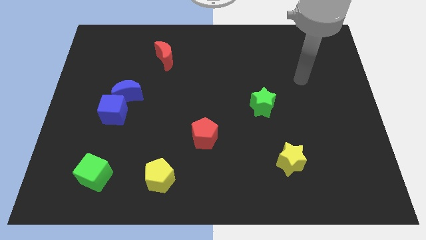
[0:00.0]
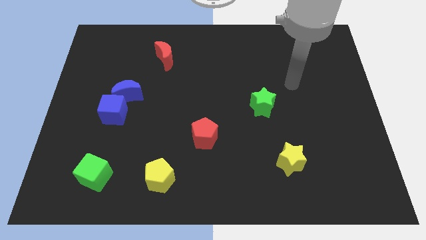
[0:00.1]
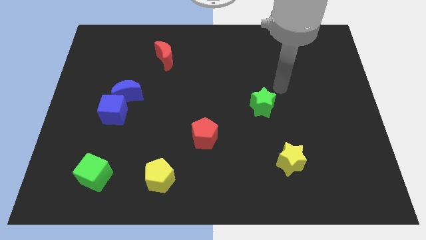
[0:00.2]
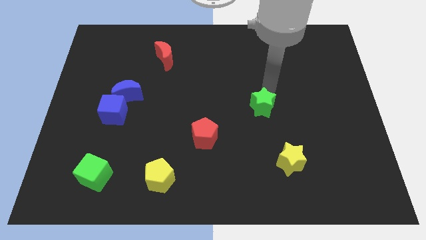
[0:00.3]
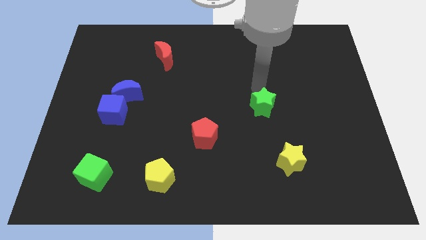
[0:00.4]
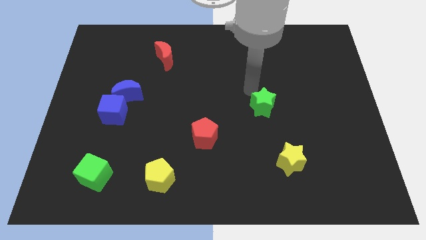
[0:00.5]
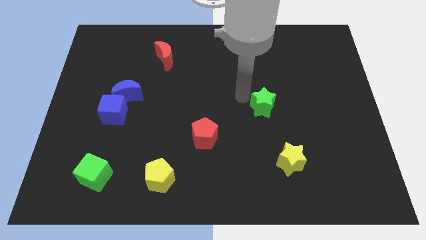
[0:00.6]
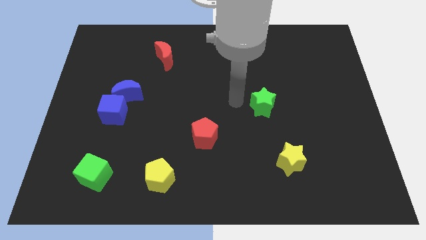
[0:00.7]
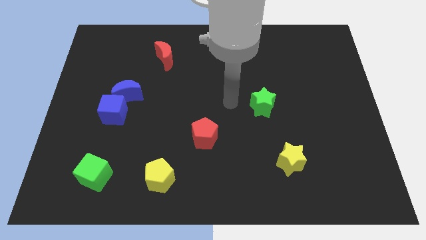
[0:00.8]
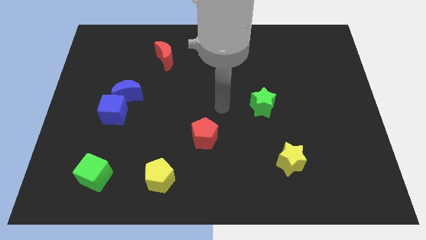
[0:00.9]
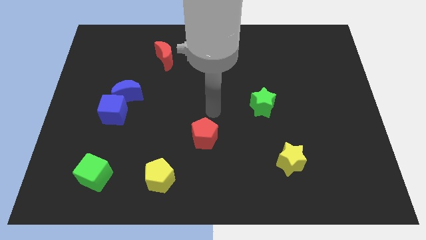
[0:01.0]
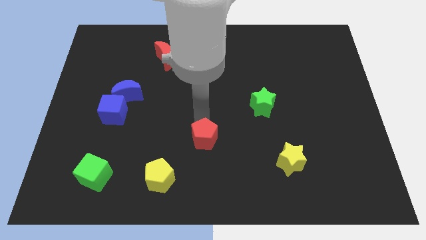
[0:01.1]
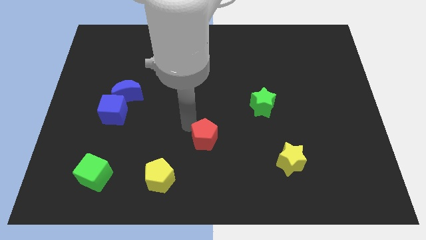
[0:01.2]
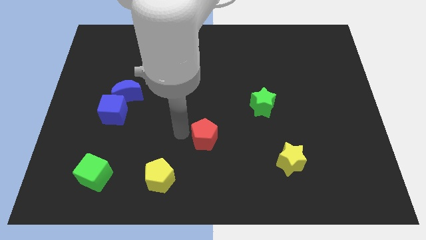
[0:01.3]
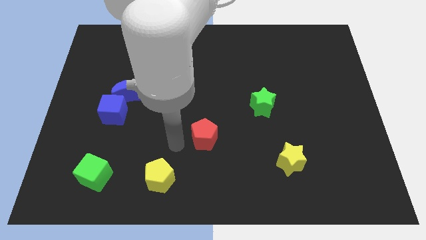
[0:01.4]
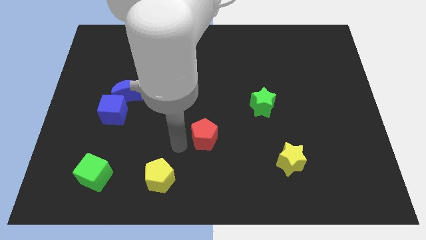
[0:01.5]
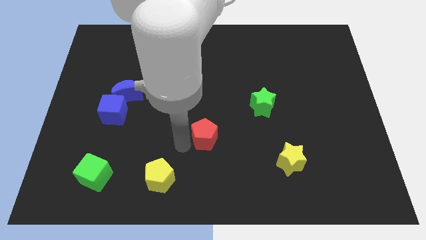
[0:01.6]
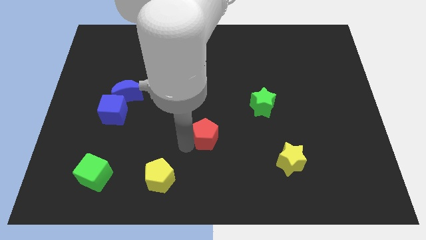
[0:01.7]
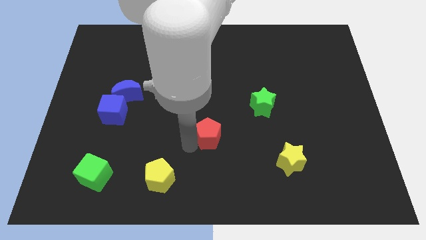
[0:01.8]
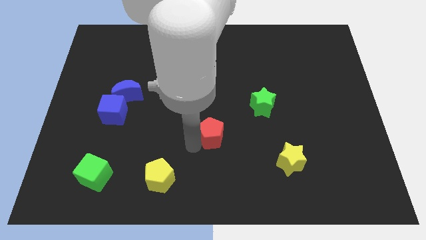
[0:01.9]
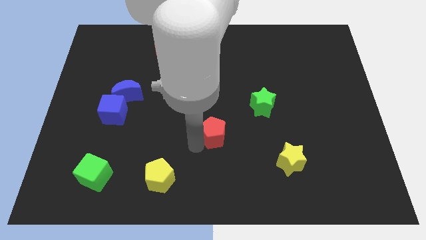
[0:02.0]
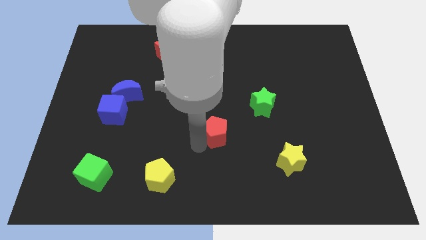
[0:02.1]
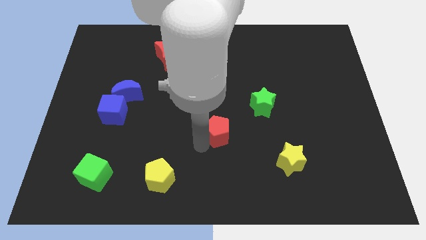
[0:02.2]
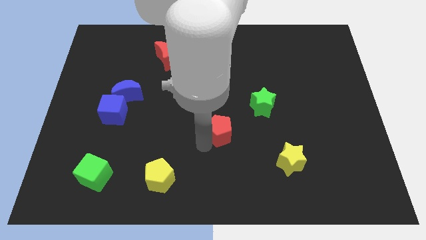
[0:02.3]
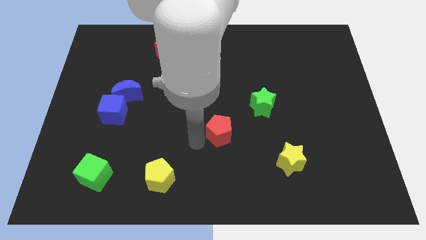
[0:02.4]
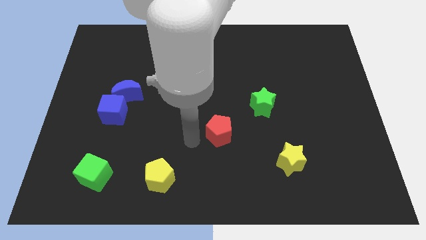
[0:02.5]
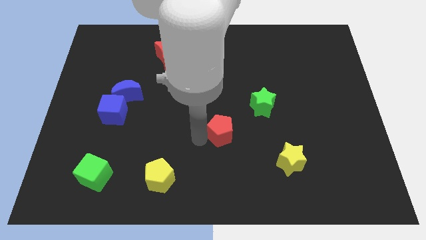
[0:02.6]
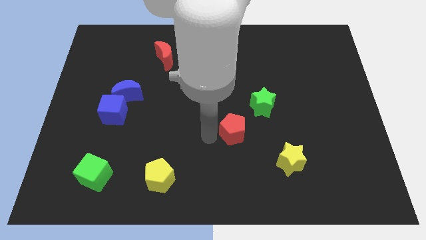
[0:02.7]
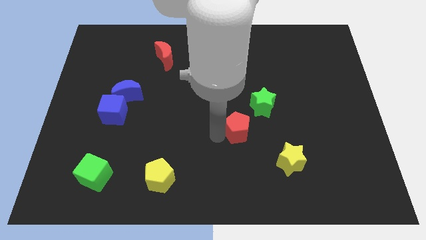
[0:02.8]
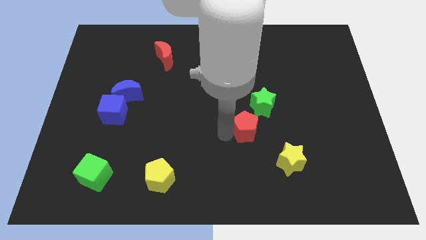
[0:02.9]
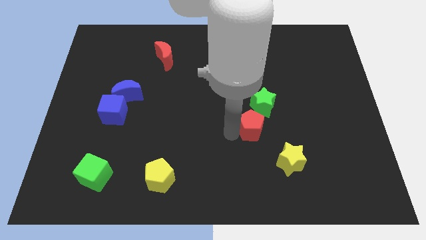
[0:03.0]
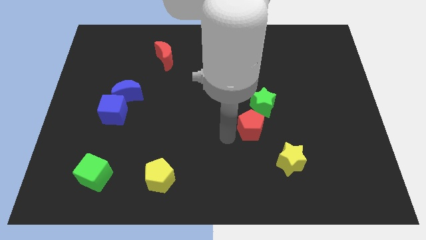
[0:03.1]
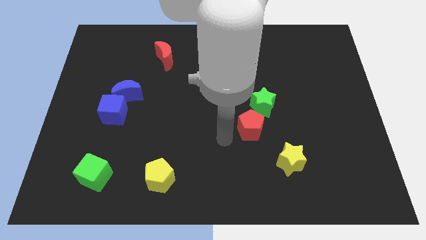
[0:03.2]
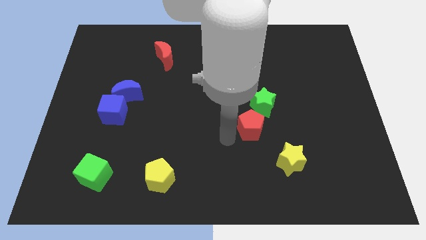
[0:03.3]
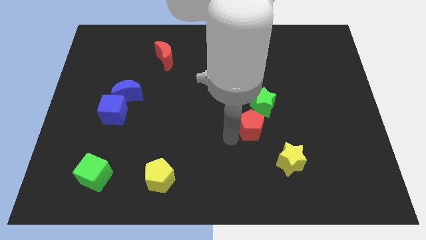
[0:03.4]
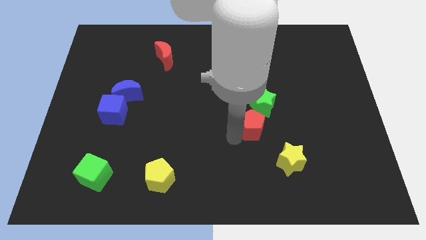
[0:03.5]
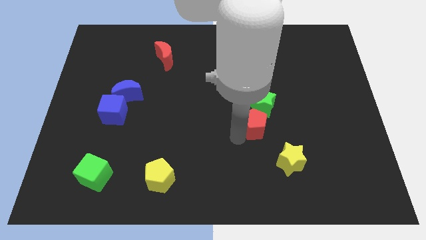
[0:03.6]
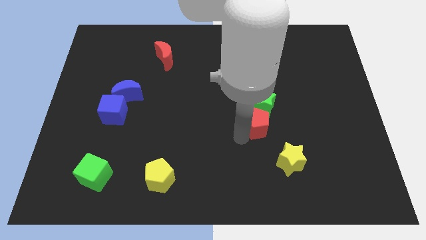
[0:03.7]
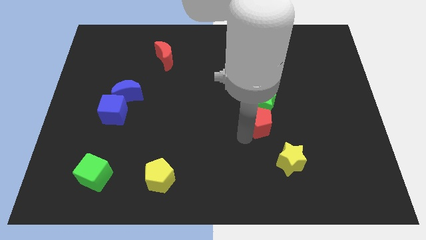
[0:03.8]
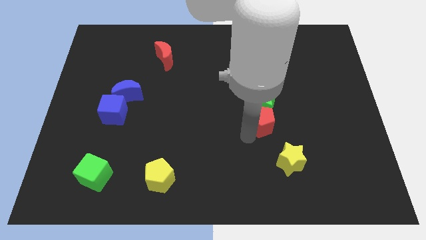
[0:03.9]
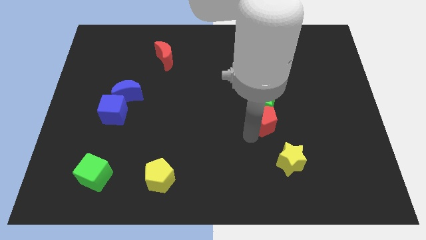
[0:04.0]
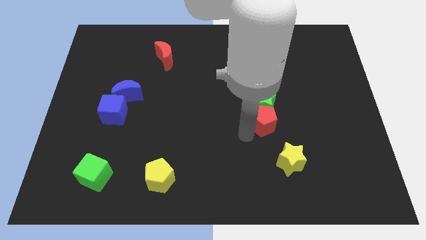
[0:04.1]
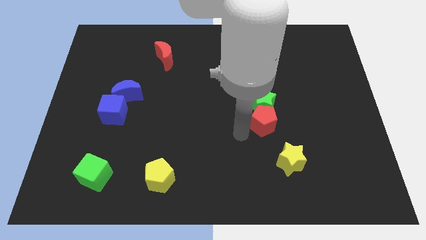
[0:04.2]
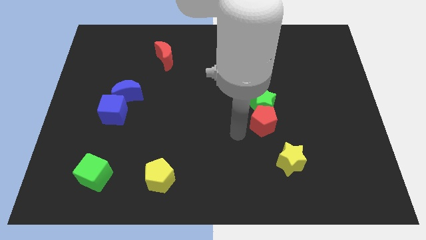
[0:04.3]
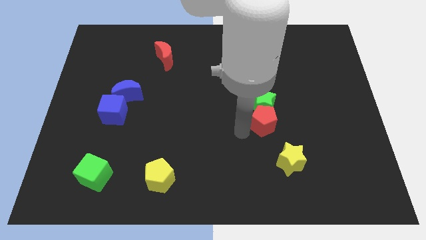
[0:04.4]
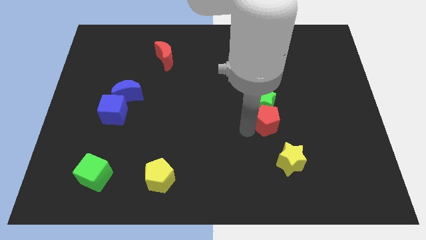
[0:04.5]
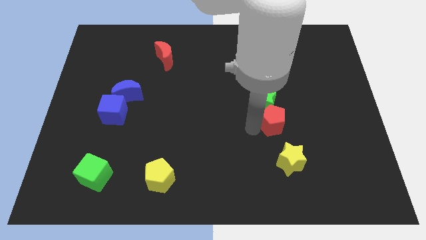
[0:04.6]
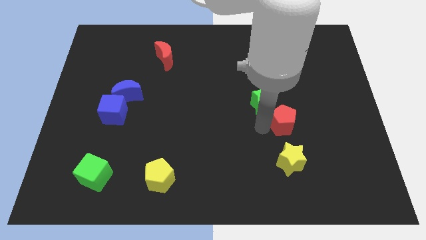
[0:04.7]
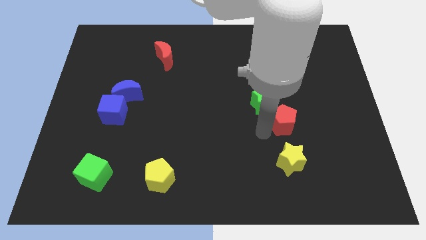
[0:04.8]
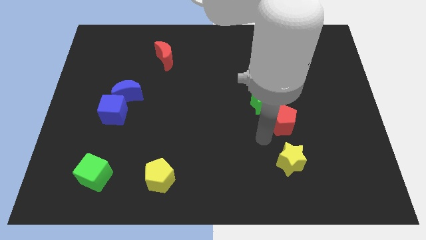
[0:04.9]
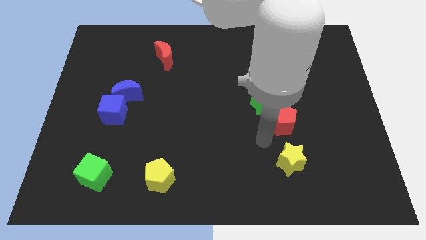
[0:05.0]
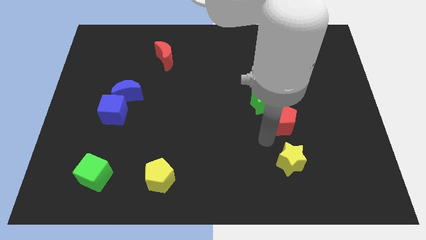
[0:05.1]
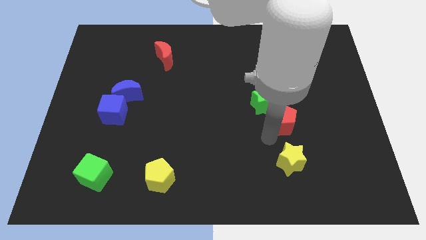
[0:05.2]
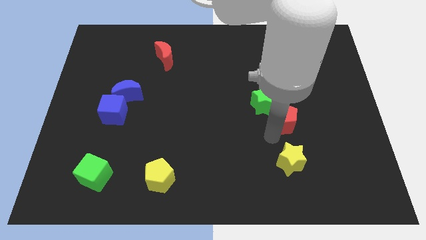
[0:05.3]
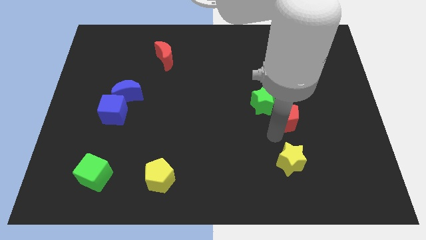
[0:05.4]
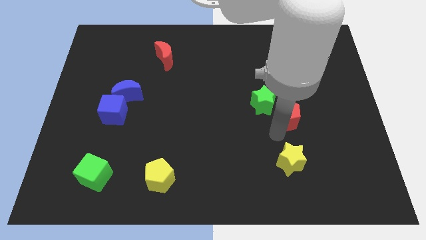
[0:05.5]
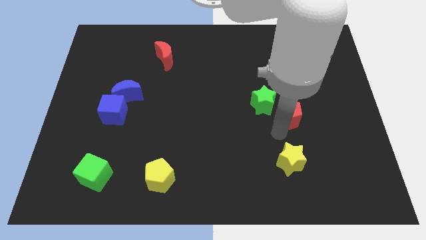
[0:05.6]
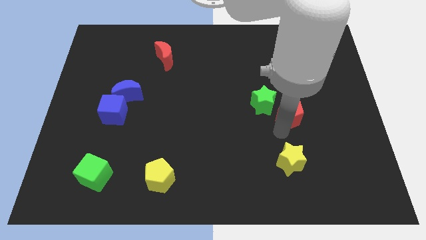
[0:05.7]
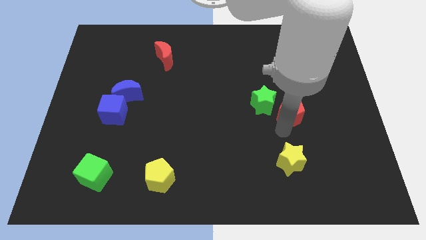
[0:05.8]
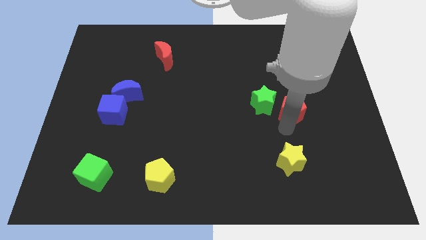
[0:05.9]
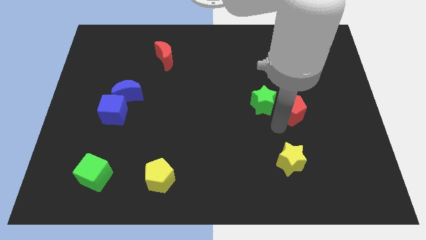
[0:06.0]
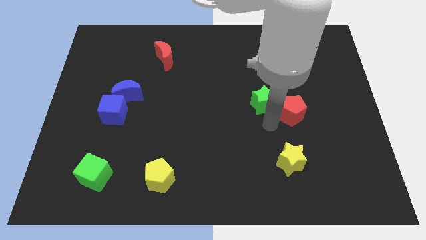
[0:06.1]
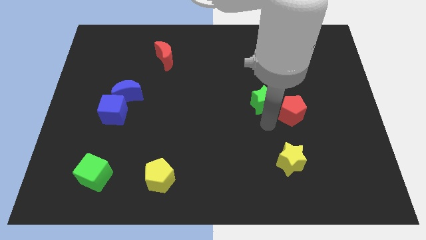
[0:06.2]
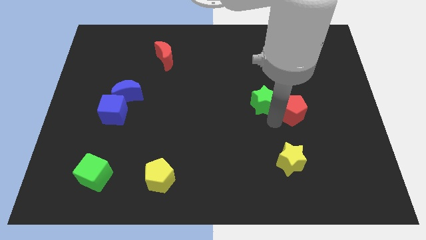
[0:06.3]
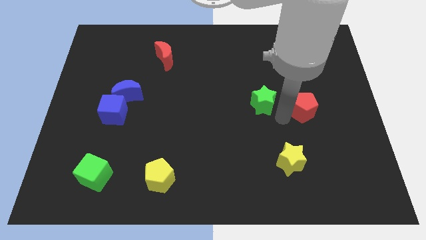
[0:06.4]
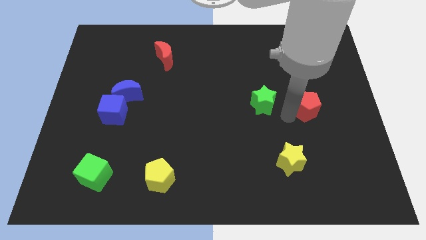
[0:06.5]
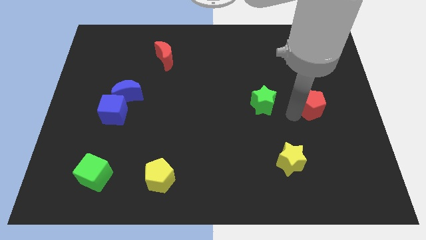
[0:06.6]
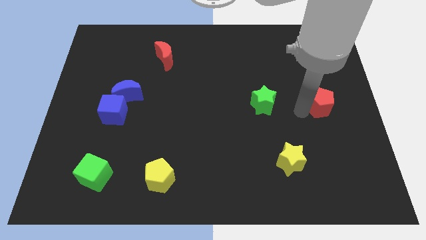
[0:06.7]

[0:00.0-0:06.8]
push the red pentagon to the center right
